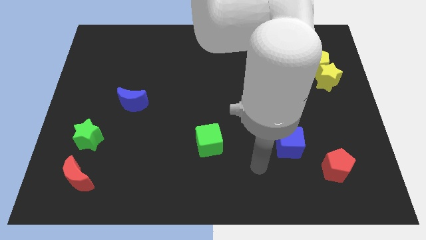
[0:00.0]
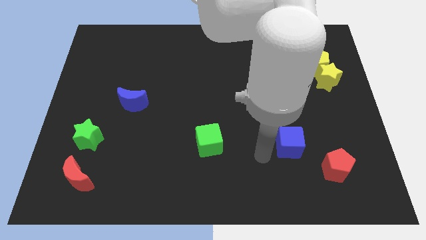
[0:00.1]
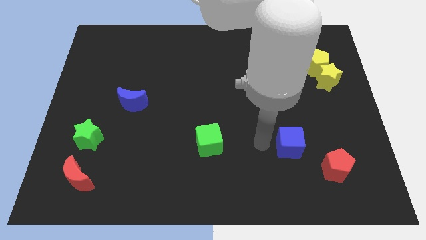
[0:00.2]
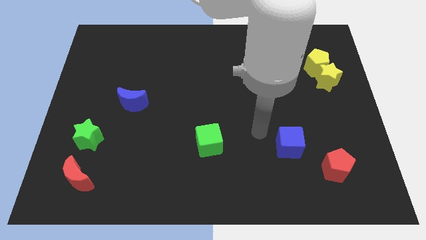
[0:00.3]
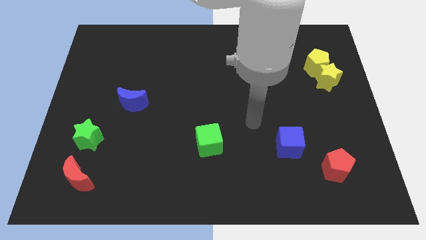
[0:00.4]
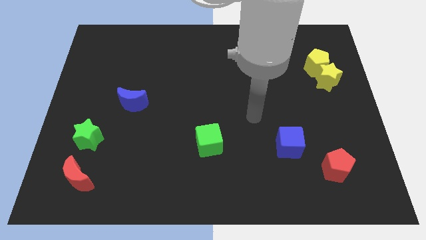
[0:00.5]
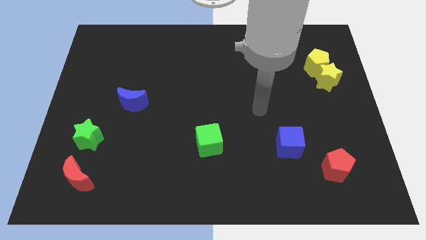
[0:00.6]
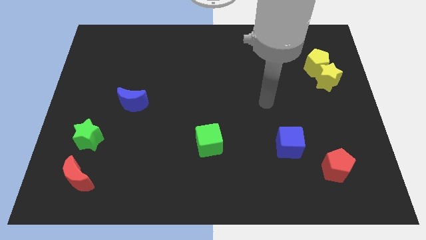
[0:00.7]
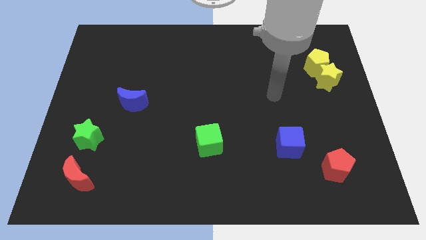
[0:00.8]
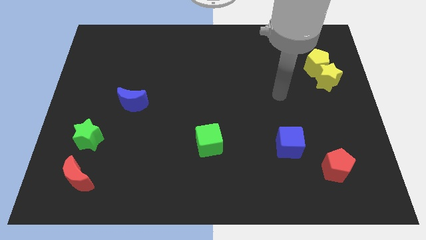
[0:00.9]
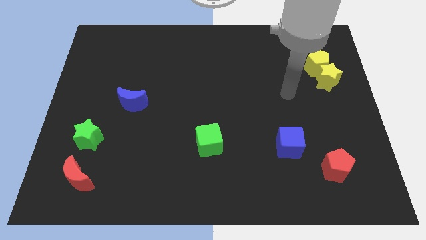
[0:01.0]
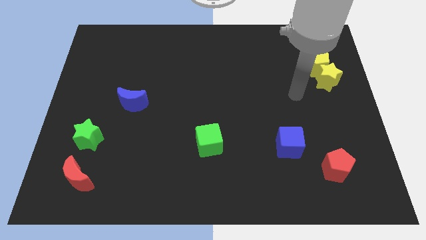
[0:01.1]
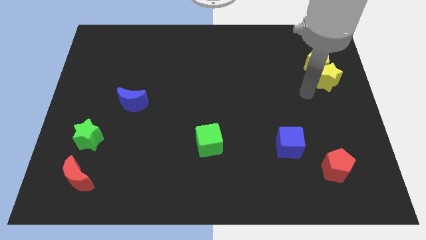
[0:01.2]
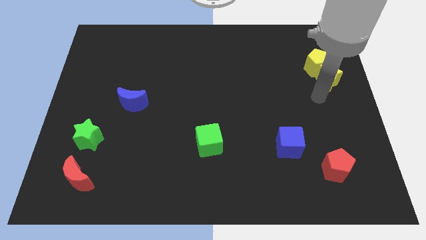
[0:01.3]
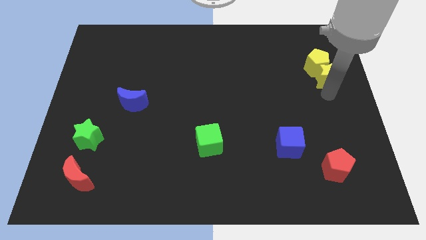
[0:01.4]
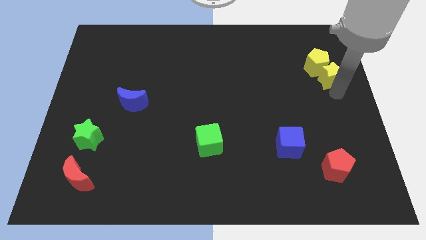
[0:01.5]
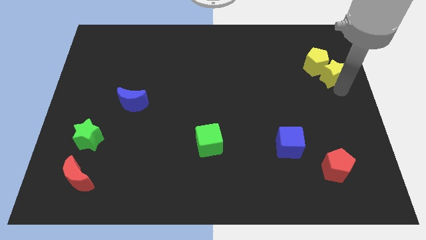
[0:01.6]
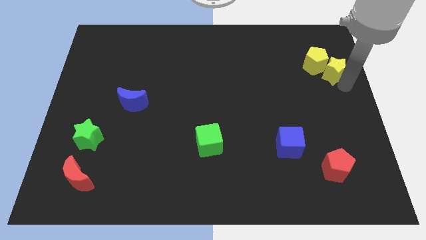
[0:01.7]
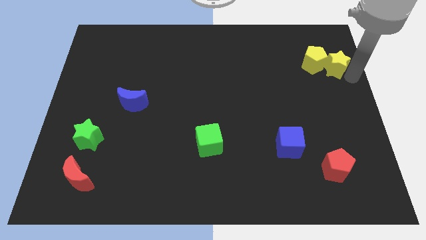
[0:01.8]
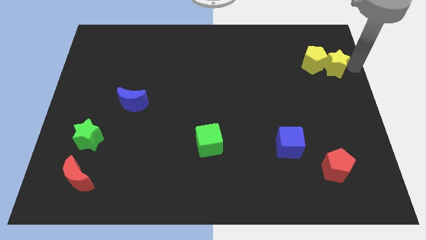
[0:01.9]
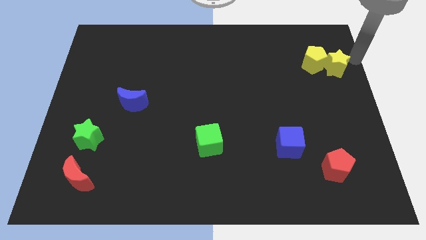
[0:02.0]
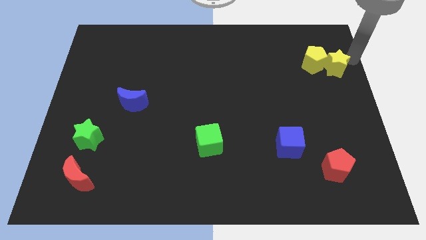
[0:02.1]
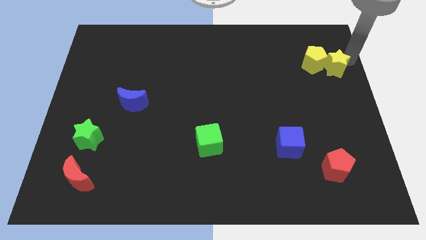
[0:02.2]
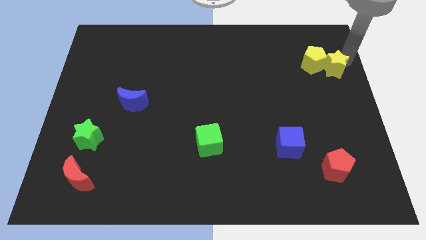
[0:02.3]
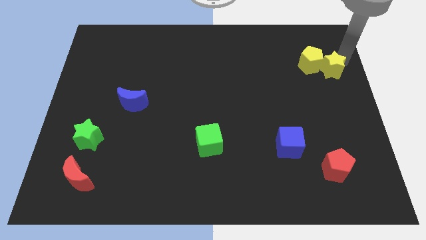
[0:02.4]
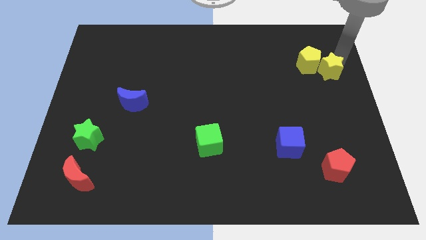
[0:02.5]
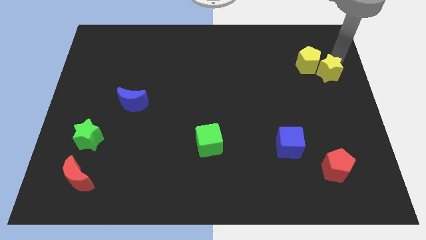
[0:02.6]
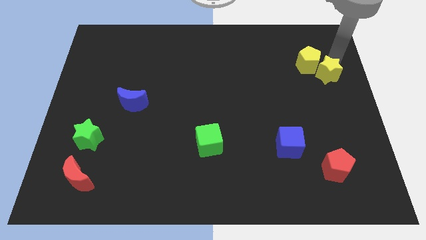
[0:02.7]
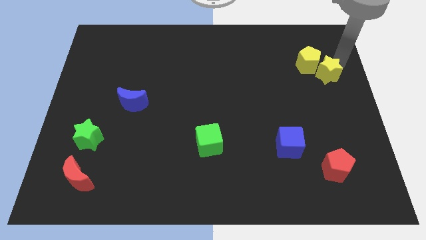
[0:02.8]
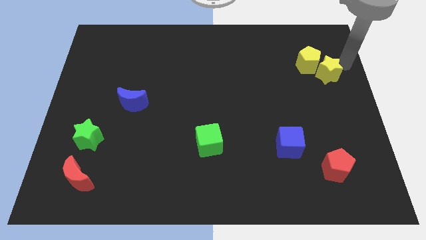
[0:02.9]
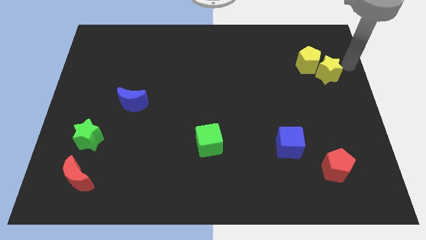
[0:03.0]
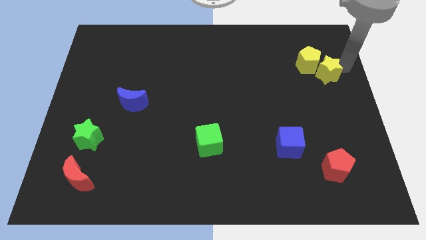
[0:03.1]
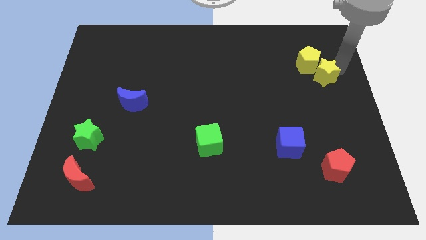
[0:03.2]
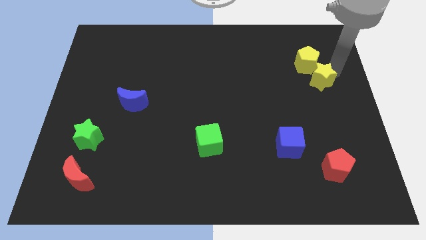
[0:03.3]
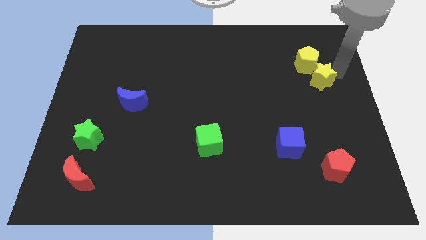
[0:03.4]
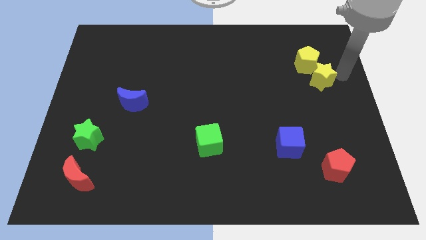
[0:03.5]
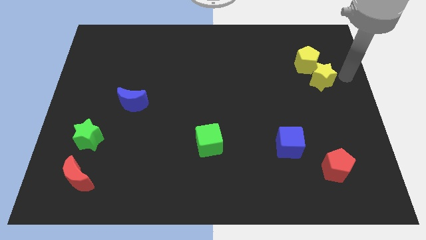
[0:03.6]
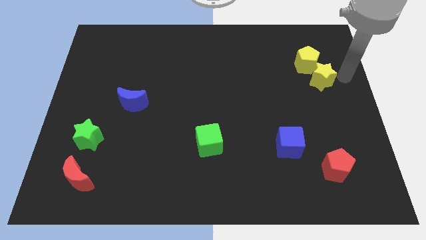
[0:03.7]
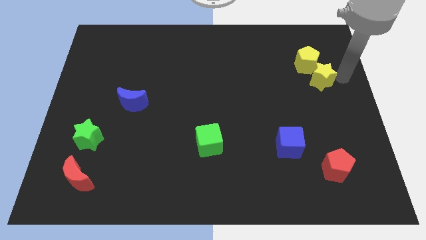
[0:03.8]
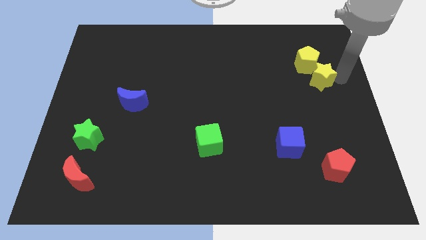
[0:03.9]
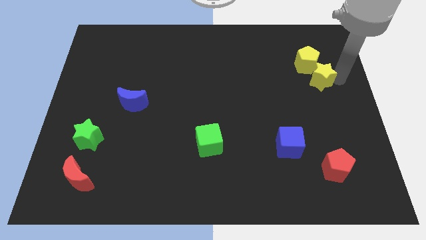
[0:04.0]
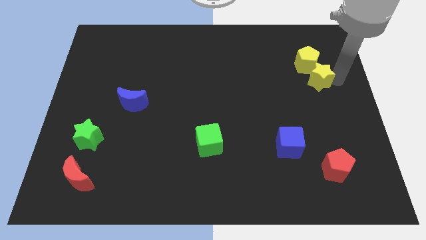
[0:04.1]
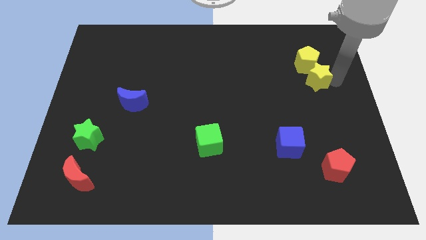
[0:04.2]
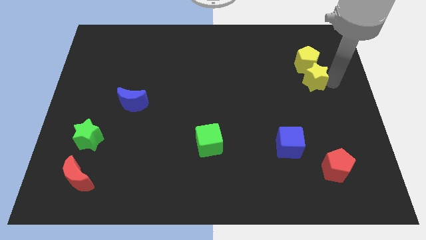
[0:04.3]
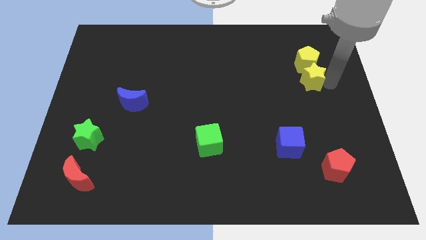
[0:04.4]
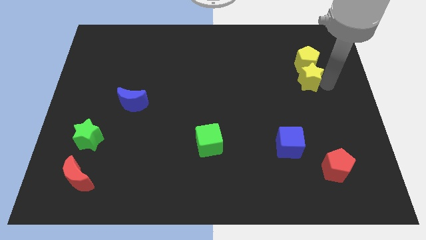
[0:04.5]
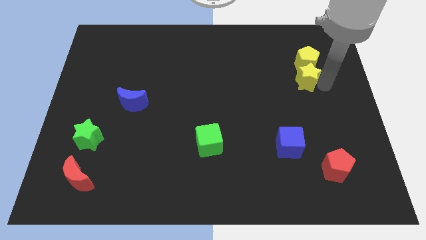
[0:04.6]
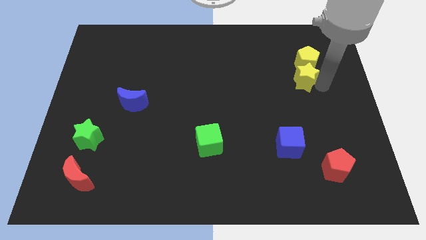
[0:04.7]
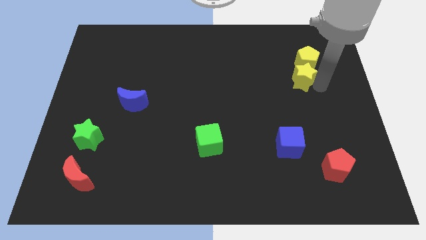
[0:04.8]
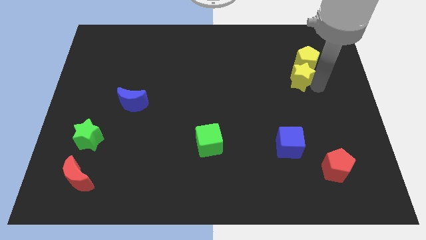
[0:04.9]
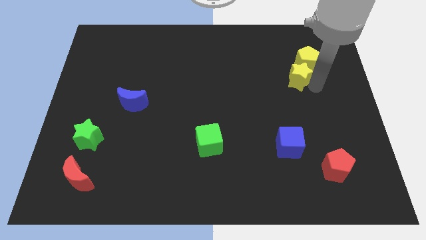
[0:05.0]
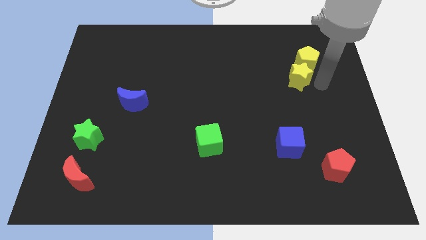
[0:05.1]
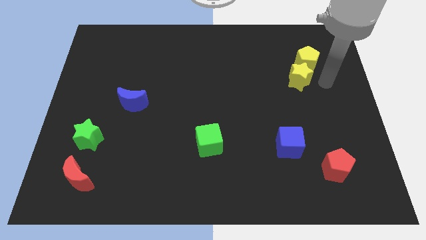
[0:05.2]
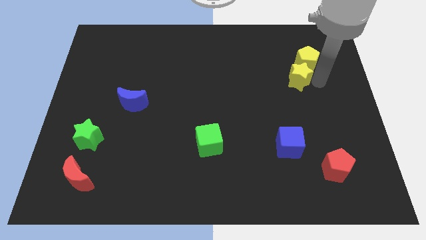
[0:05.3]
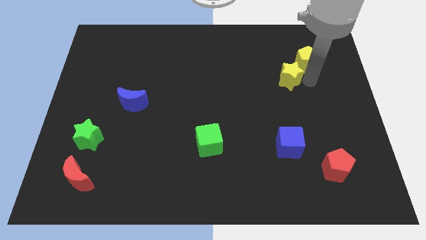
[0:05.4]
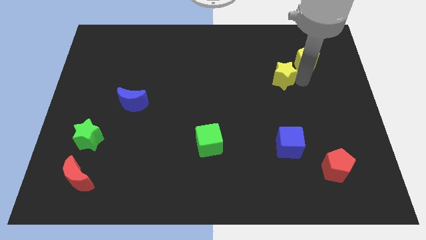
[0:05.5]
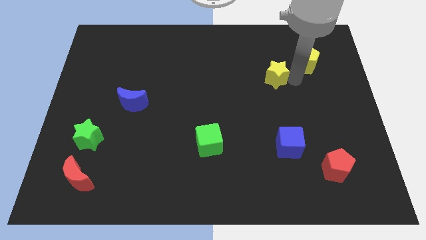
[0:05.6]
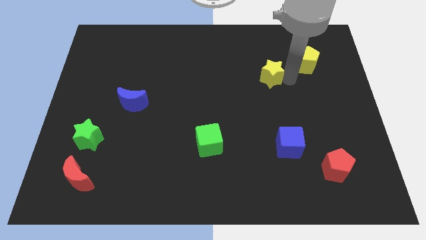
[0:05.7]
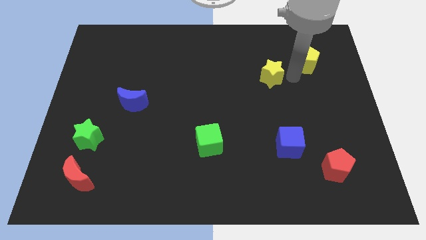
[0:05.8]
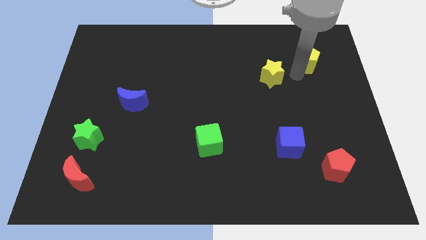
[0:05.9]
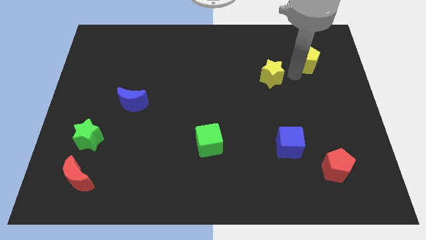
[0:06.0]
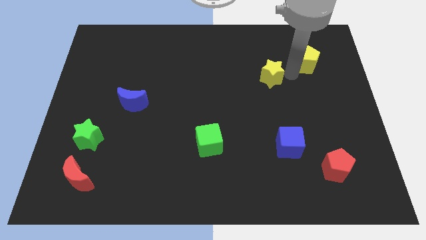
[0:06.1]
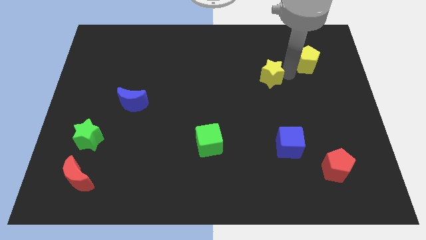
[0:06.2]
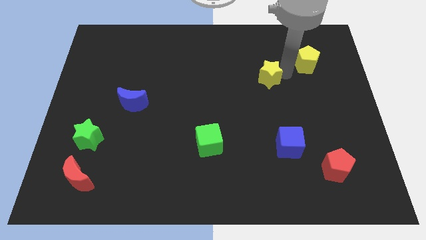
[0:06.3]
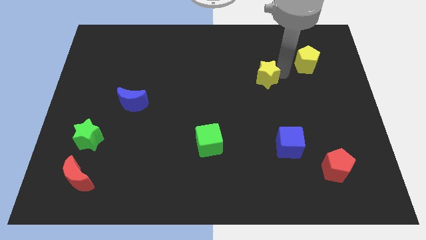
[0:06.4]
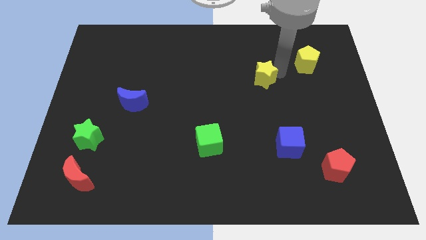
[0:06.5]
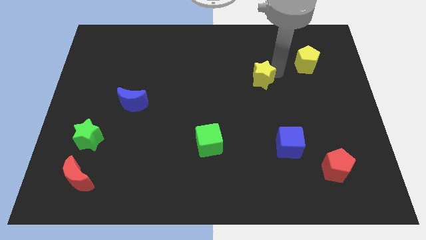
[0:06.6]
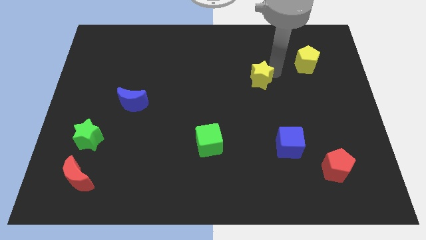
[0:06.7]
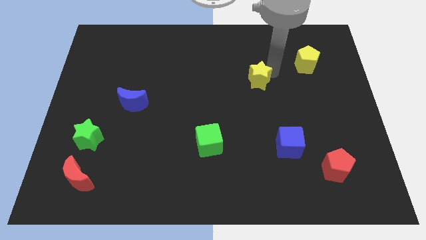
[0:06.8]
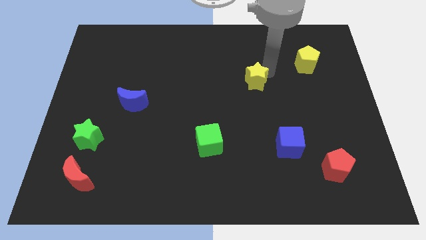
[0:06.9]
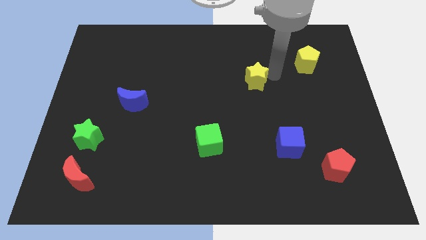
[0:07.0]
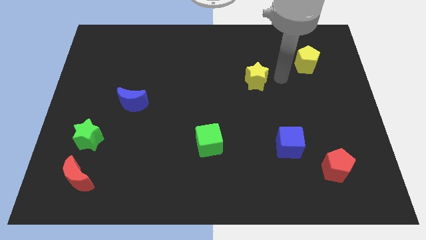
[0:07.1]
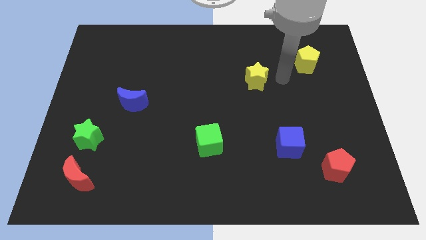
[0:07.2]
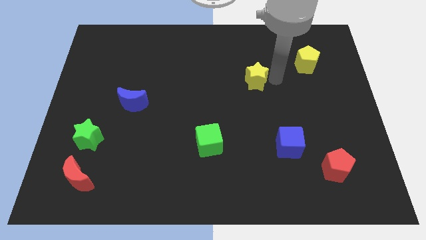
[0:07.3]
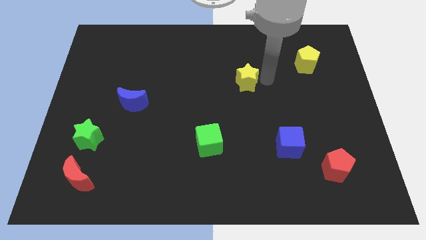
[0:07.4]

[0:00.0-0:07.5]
slide the yellow star left

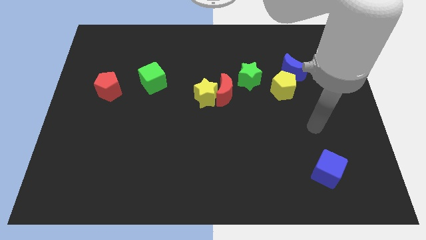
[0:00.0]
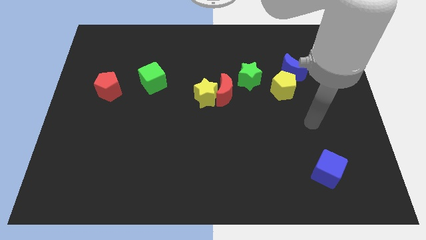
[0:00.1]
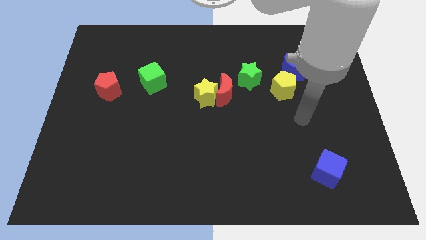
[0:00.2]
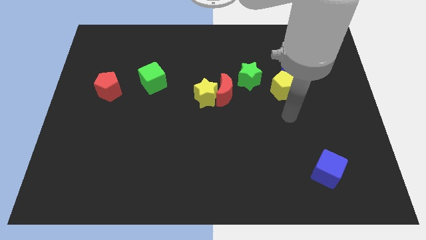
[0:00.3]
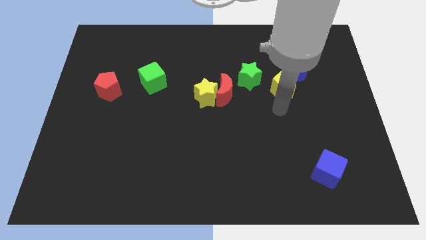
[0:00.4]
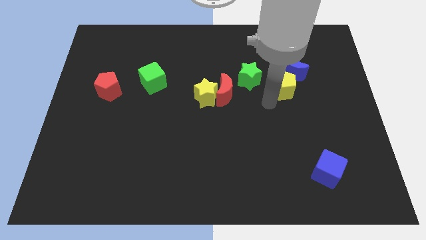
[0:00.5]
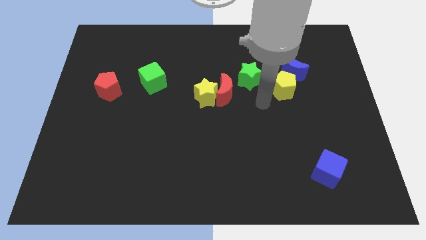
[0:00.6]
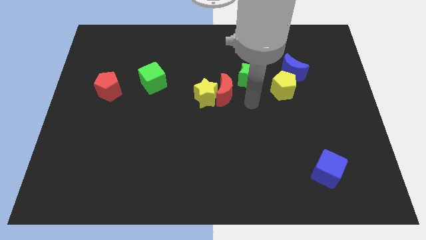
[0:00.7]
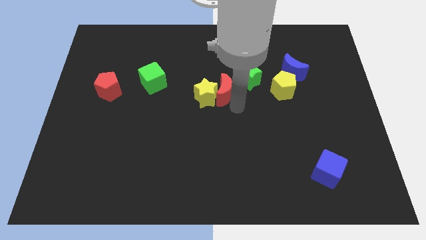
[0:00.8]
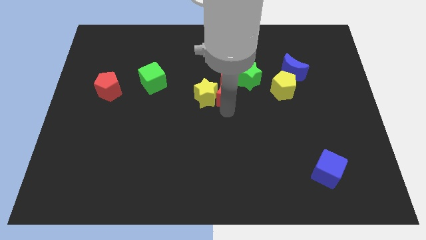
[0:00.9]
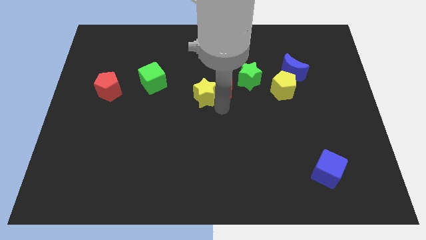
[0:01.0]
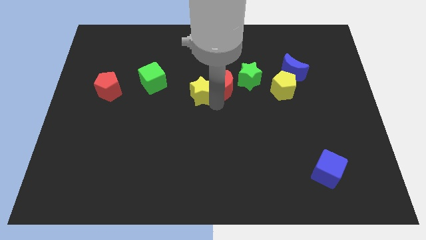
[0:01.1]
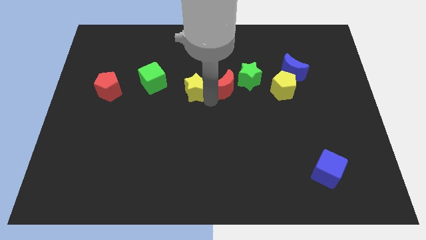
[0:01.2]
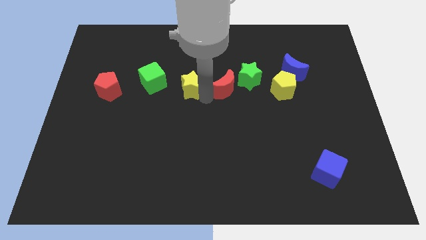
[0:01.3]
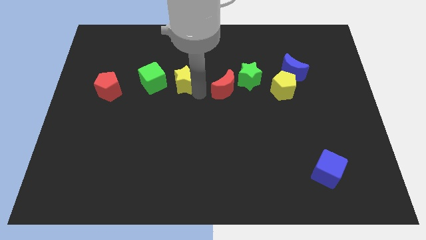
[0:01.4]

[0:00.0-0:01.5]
slide the yellow star diagonally upwards and to the left somewhat
